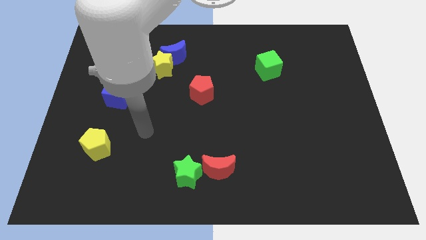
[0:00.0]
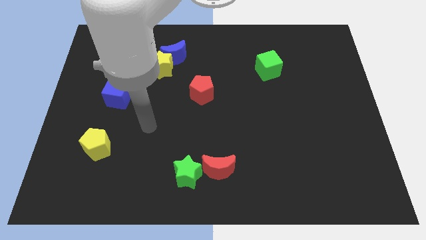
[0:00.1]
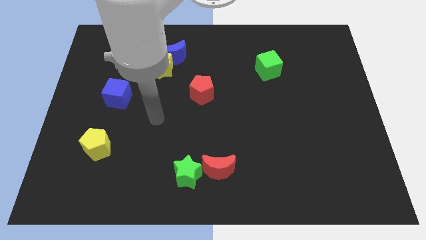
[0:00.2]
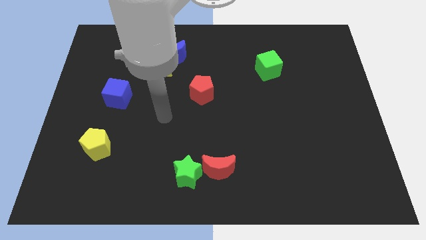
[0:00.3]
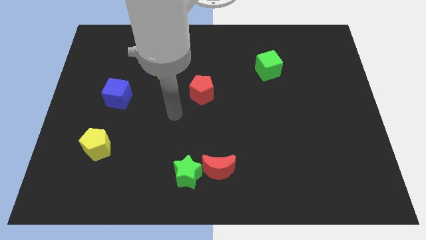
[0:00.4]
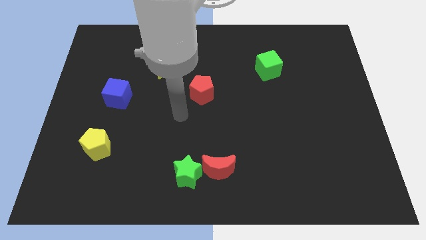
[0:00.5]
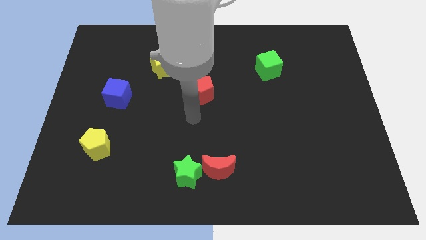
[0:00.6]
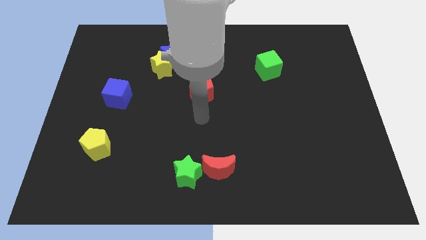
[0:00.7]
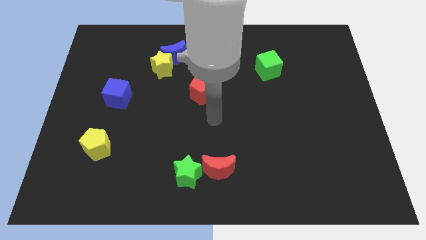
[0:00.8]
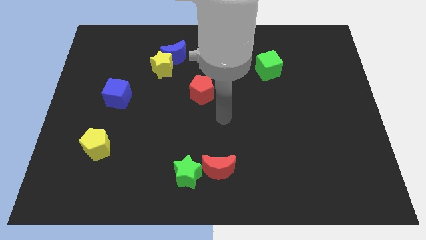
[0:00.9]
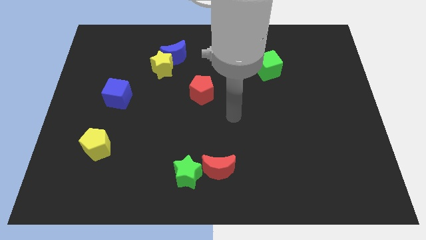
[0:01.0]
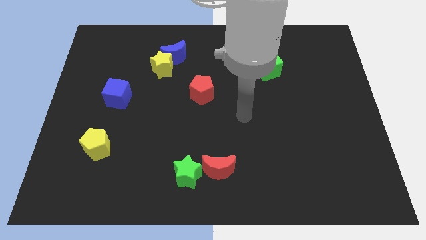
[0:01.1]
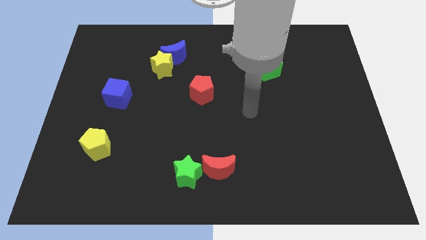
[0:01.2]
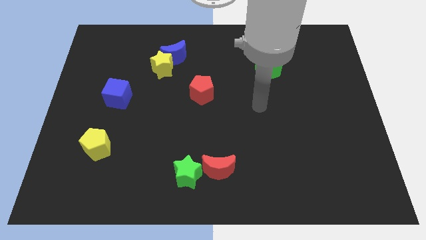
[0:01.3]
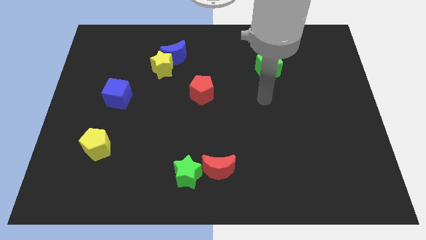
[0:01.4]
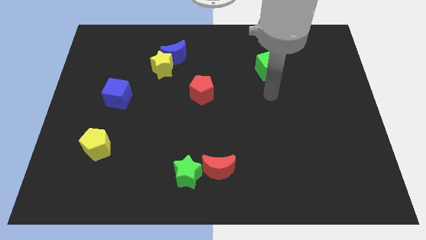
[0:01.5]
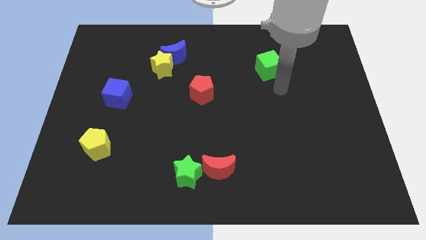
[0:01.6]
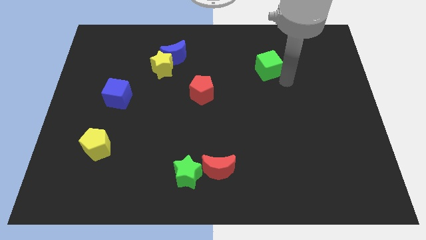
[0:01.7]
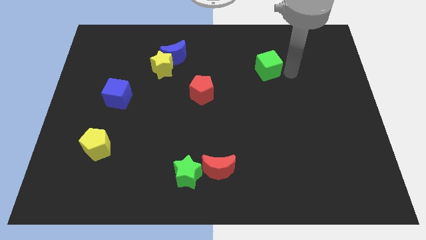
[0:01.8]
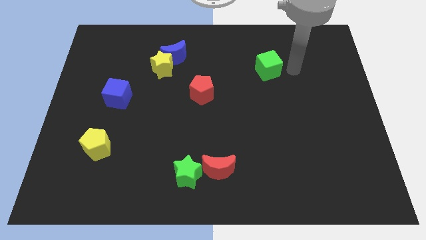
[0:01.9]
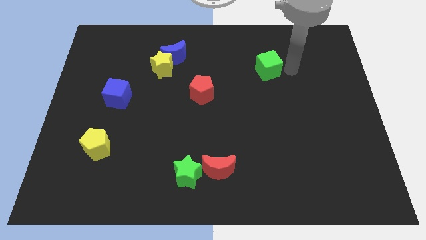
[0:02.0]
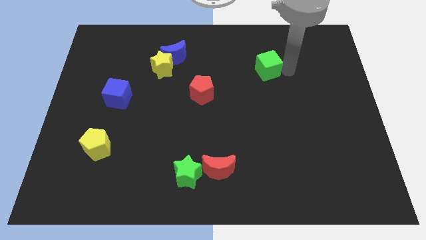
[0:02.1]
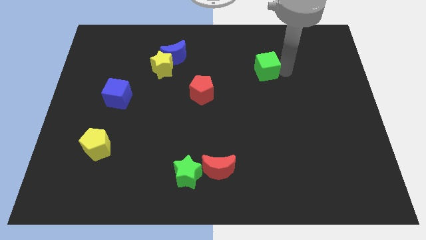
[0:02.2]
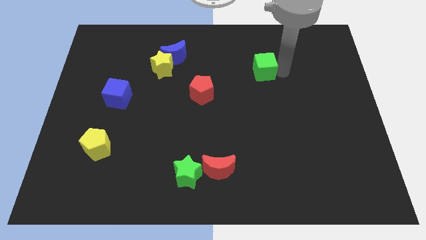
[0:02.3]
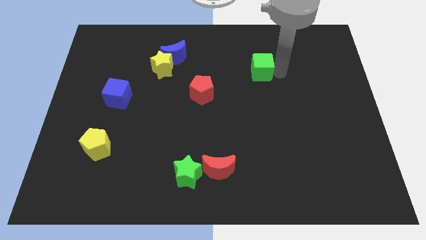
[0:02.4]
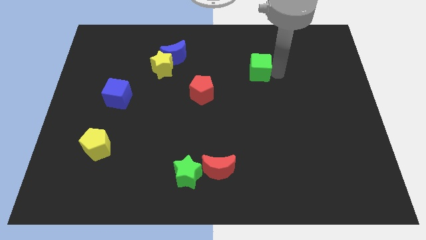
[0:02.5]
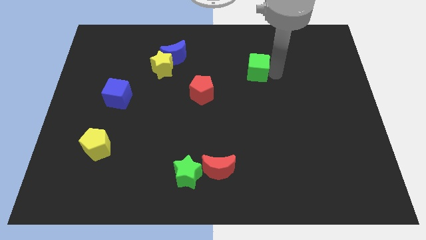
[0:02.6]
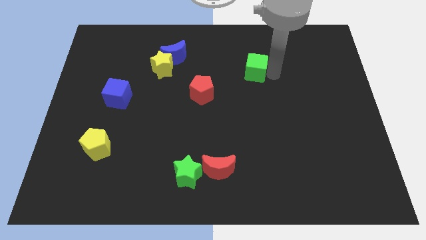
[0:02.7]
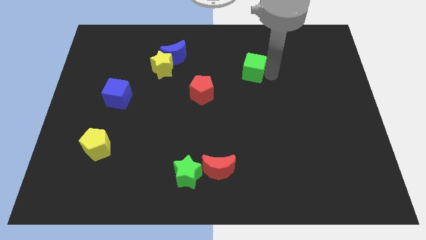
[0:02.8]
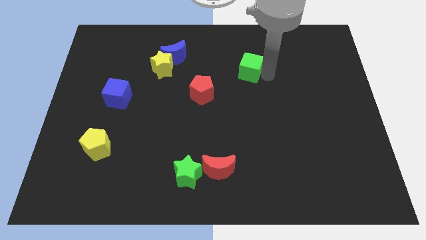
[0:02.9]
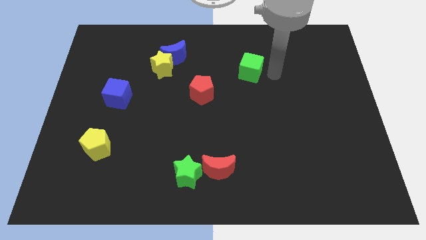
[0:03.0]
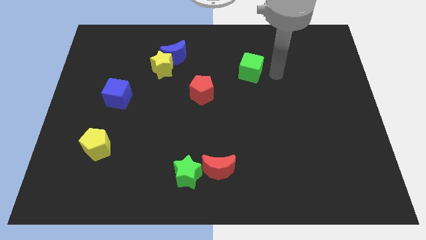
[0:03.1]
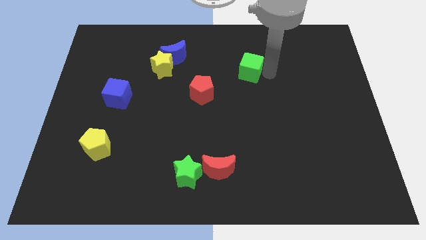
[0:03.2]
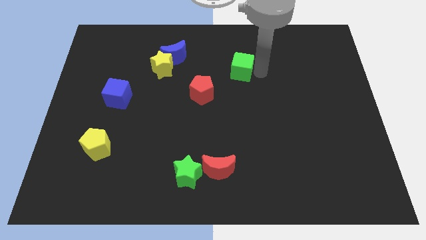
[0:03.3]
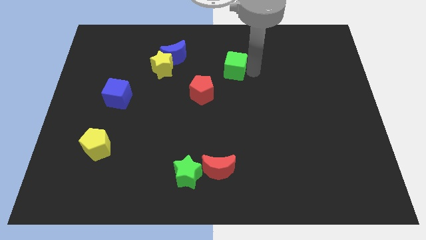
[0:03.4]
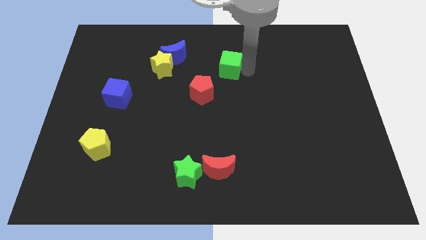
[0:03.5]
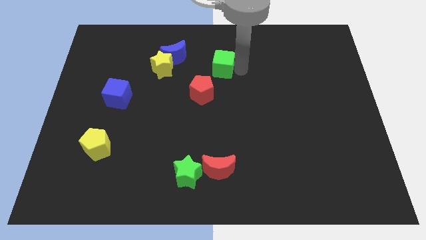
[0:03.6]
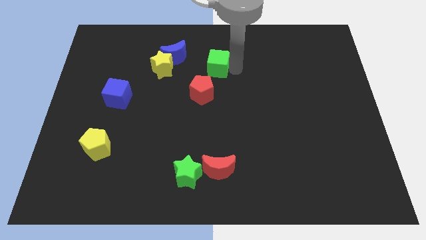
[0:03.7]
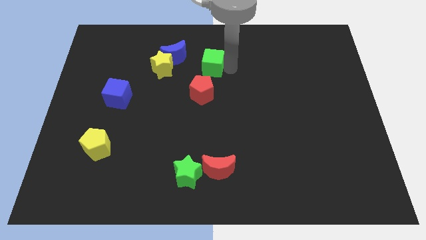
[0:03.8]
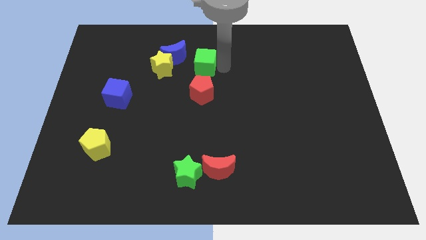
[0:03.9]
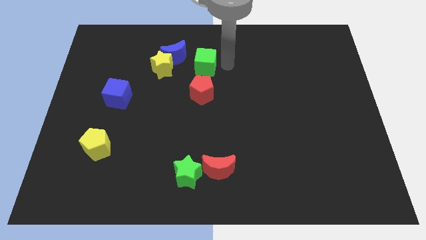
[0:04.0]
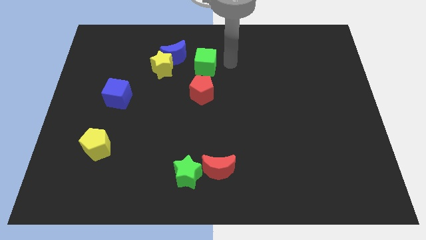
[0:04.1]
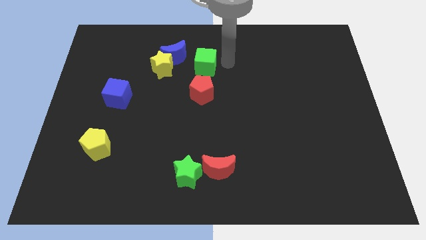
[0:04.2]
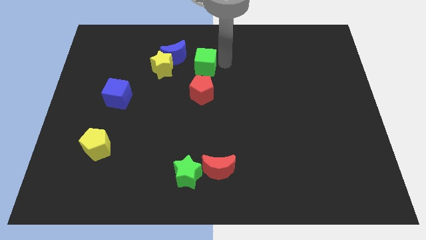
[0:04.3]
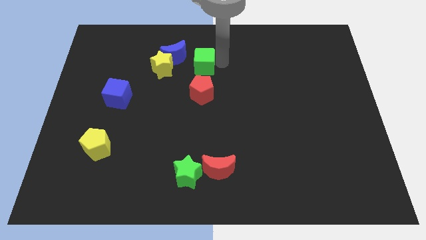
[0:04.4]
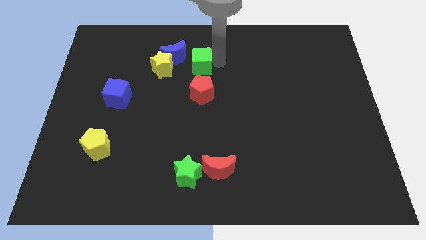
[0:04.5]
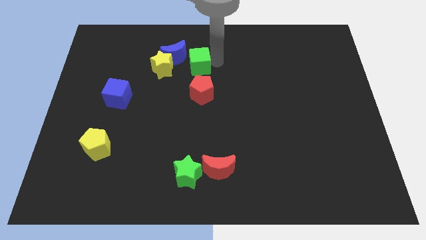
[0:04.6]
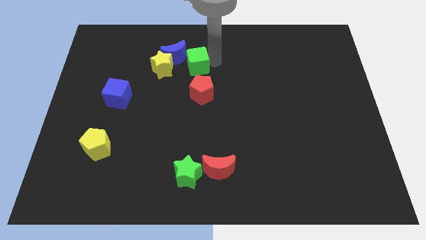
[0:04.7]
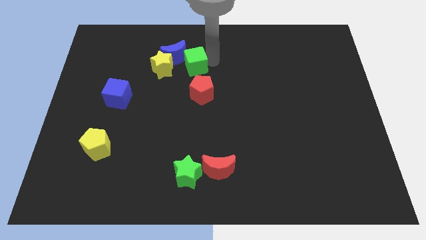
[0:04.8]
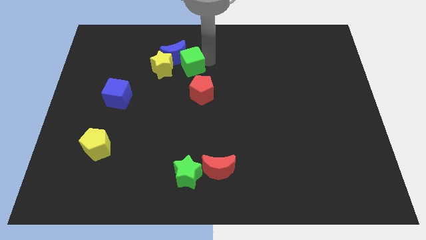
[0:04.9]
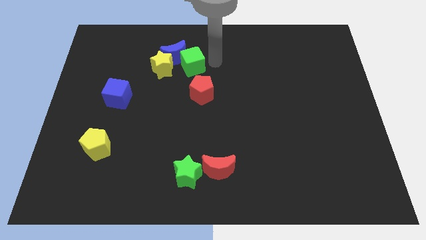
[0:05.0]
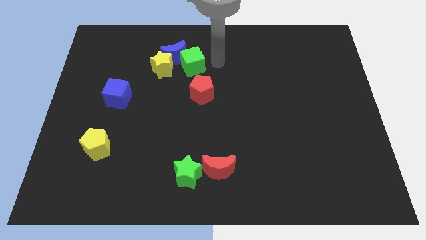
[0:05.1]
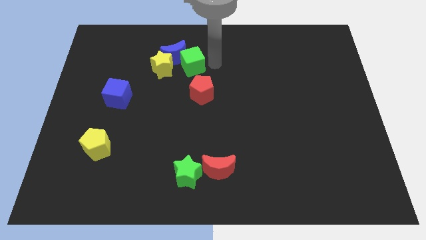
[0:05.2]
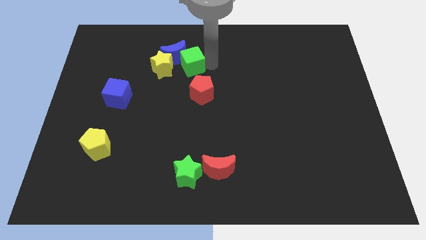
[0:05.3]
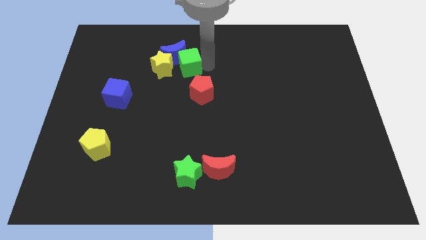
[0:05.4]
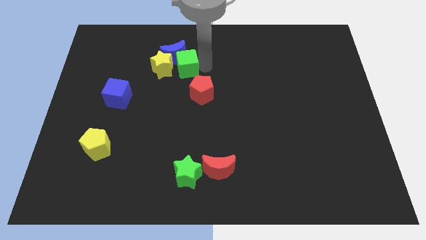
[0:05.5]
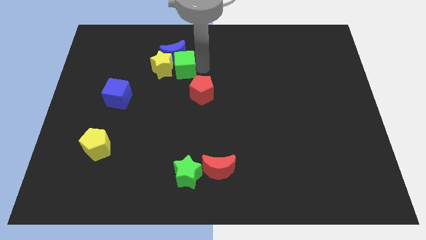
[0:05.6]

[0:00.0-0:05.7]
put the green cube towards the yellow star

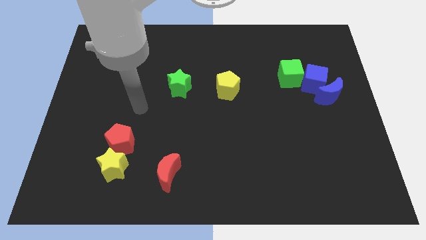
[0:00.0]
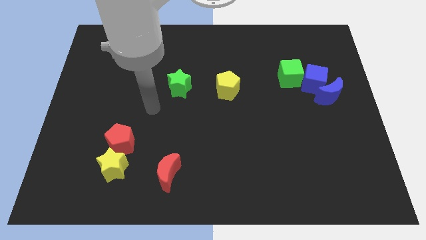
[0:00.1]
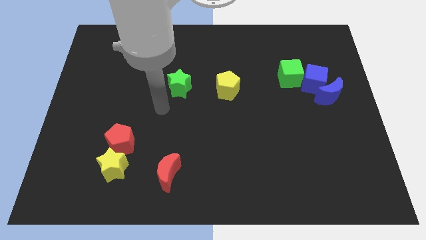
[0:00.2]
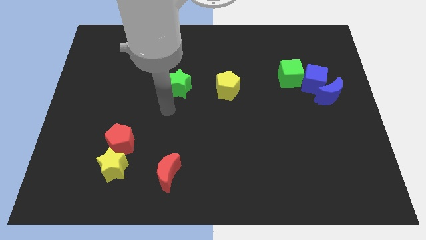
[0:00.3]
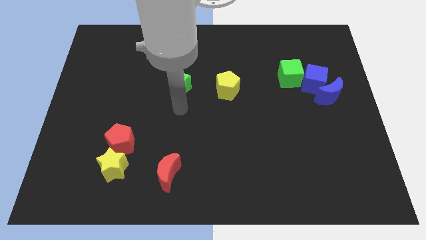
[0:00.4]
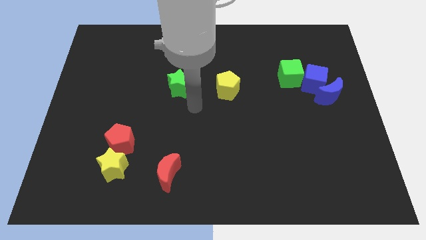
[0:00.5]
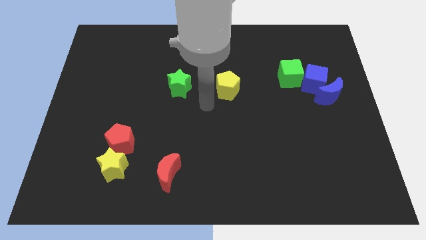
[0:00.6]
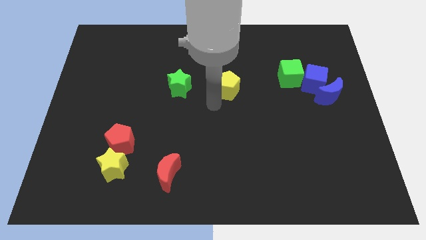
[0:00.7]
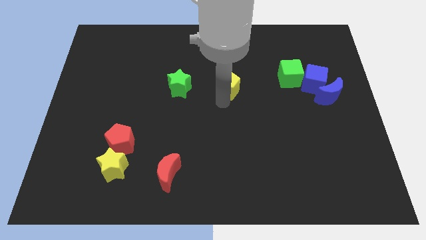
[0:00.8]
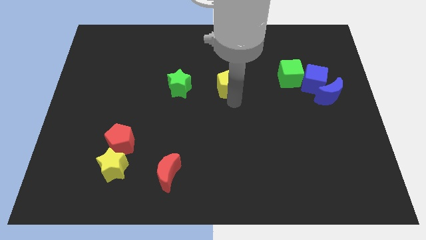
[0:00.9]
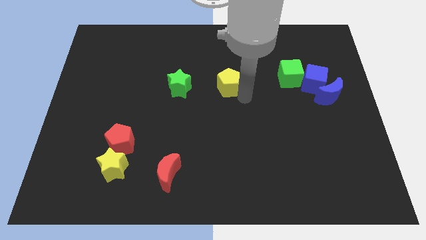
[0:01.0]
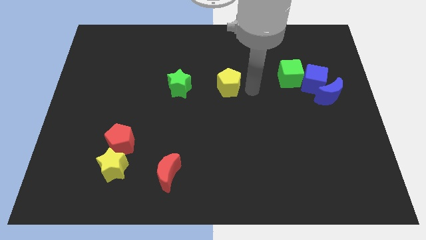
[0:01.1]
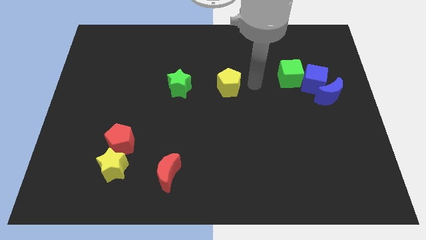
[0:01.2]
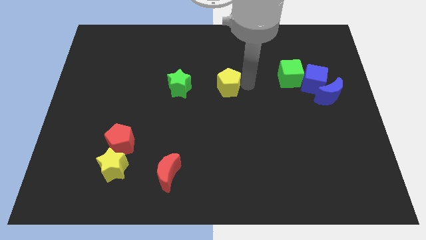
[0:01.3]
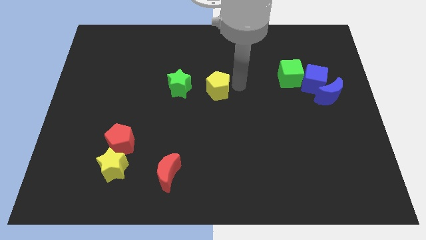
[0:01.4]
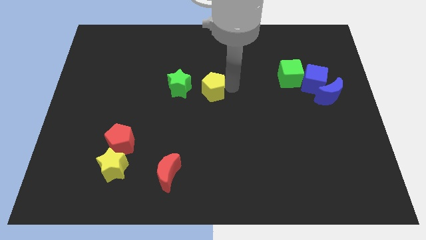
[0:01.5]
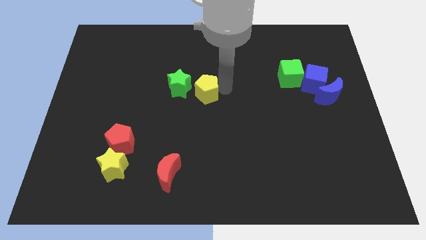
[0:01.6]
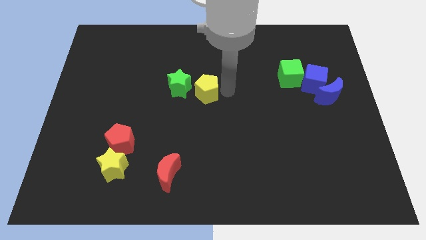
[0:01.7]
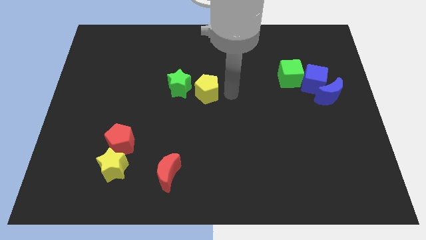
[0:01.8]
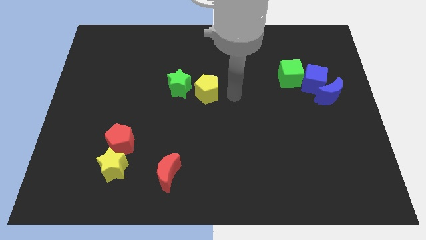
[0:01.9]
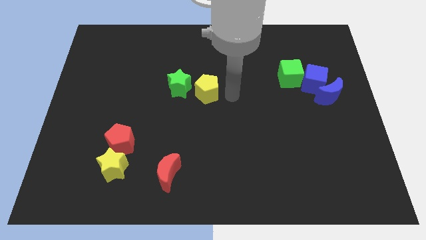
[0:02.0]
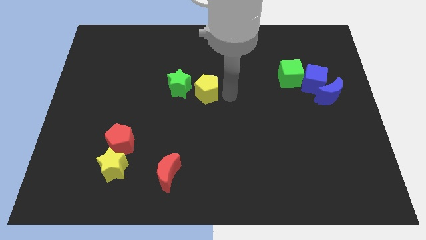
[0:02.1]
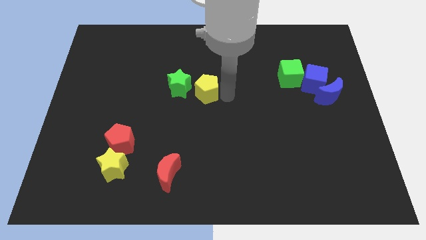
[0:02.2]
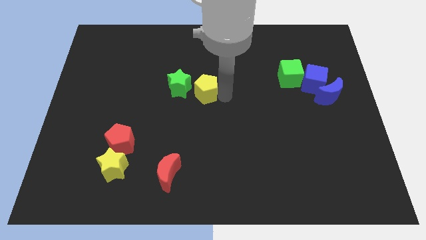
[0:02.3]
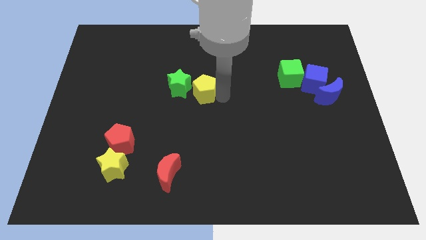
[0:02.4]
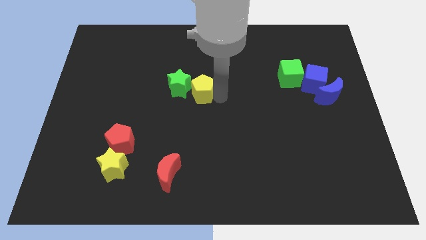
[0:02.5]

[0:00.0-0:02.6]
slide the yellow pentagon close to the green star
